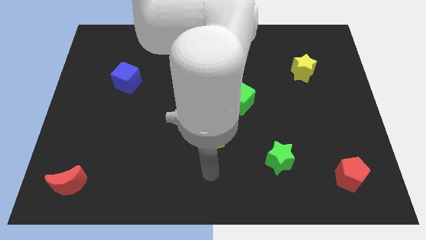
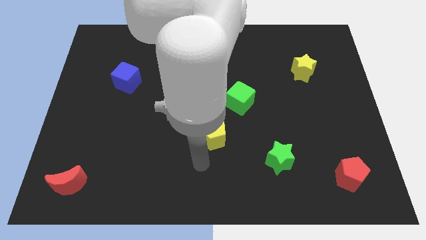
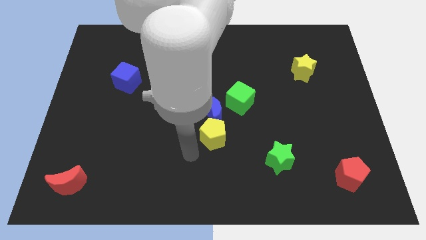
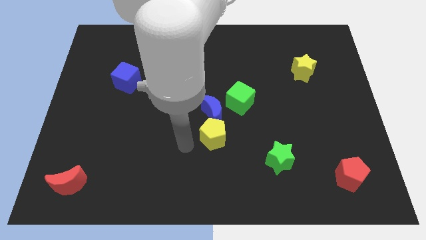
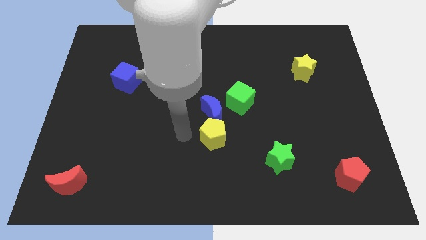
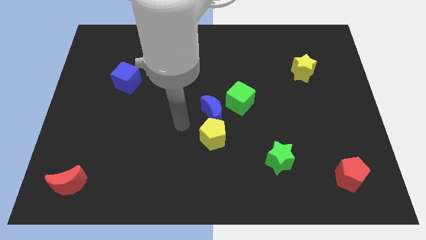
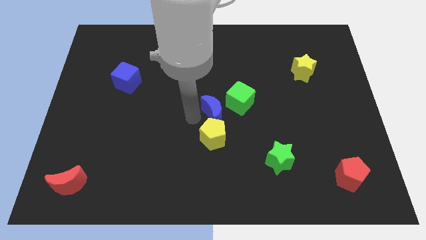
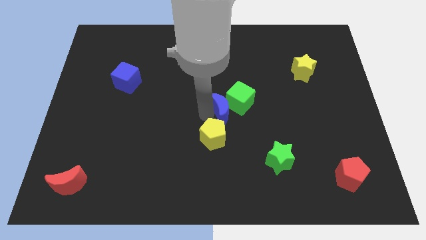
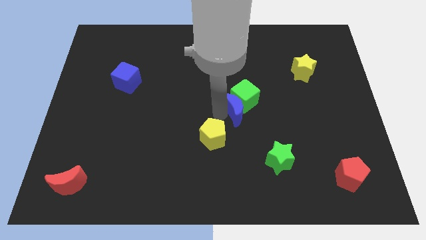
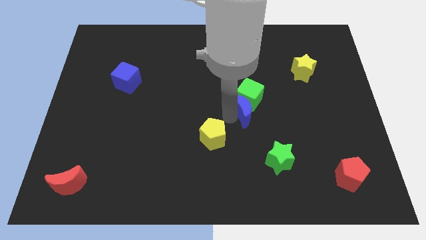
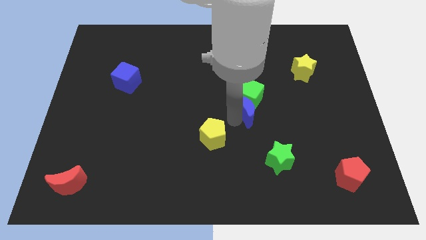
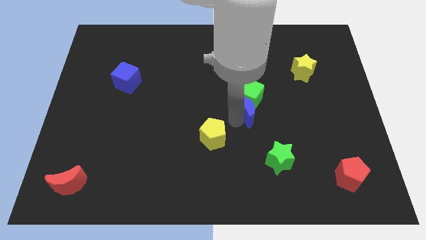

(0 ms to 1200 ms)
move the yellow pentagon away from the blue moon

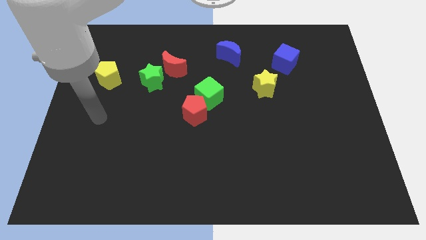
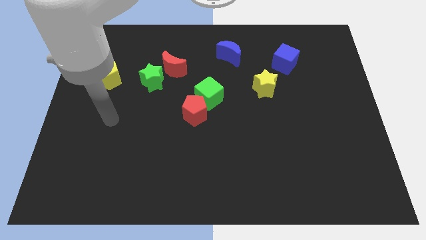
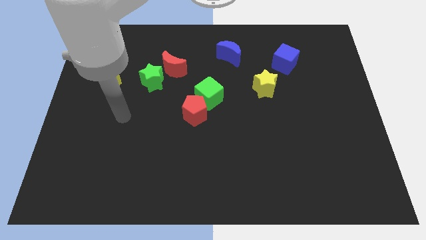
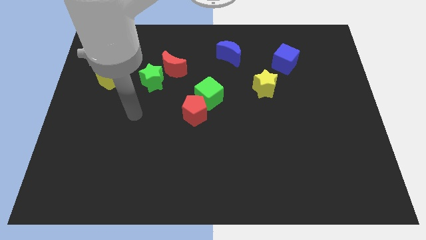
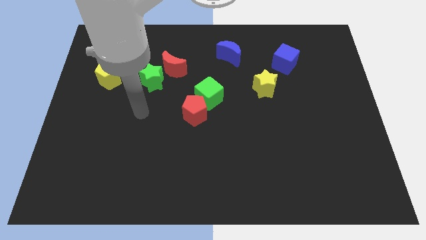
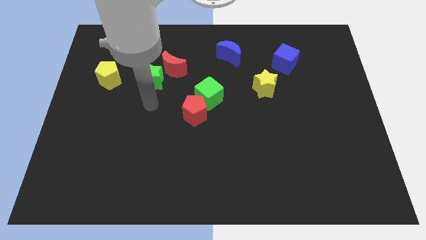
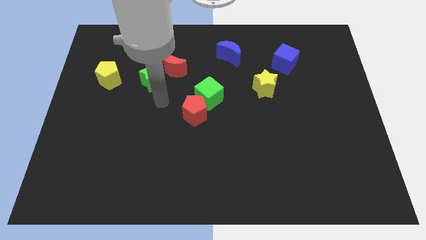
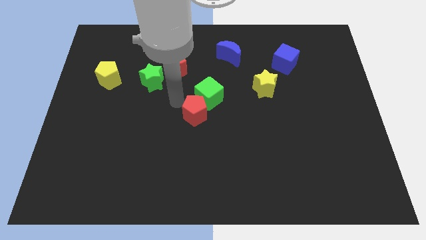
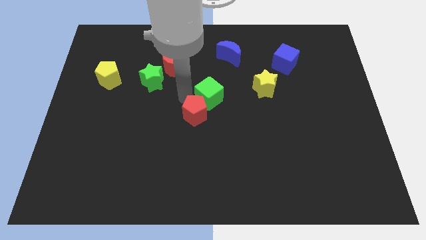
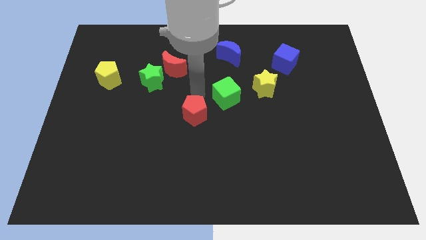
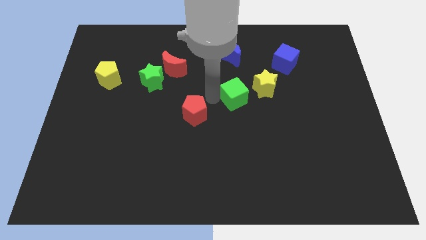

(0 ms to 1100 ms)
separate the red pentagon from the green cube

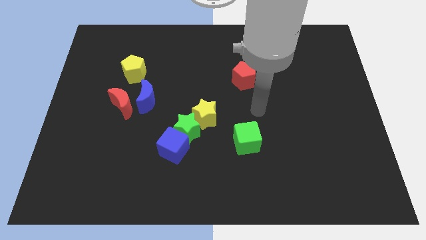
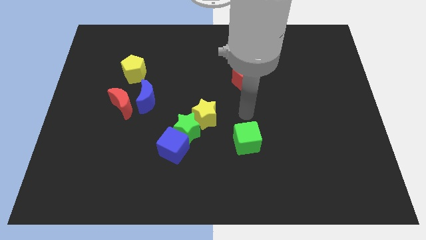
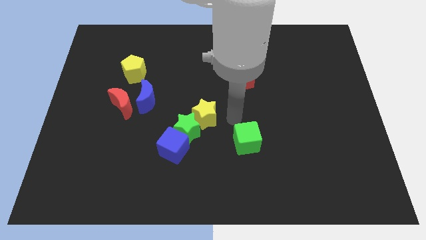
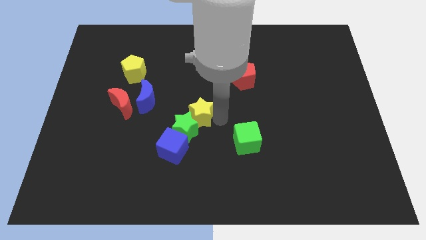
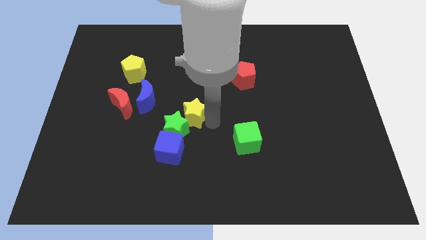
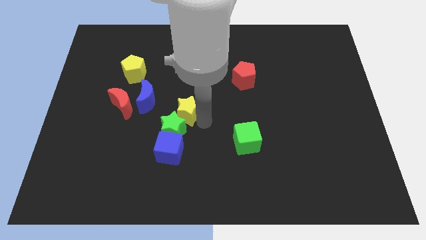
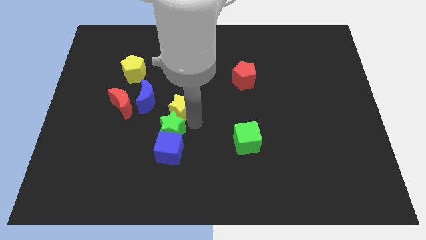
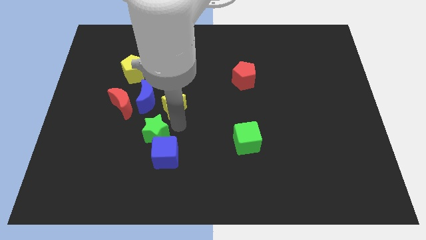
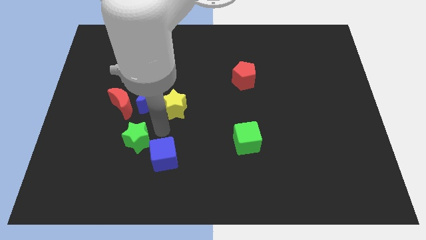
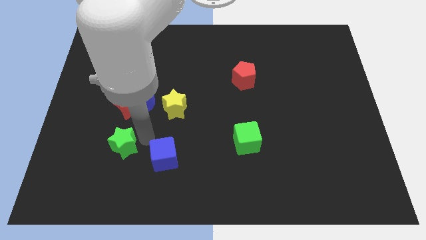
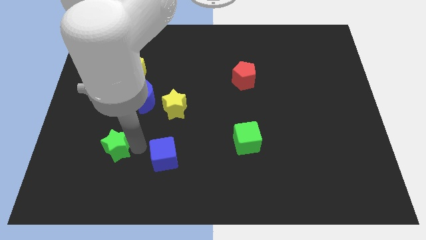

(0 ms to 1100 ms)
separate the blue cube from the green star

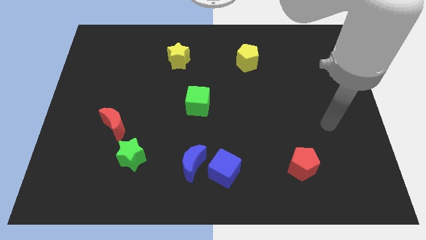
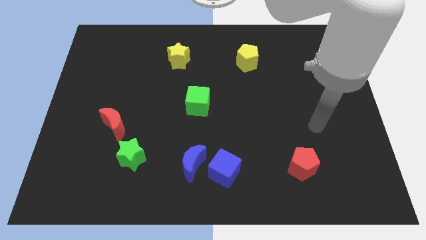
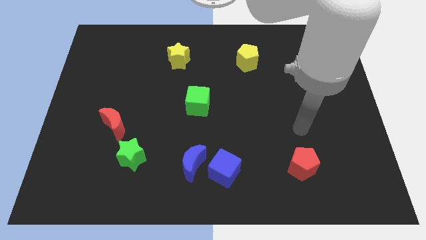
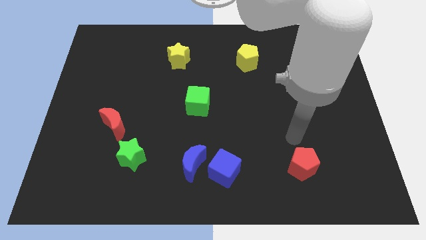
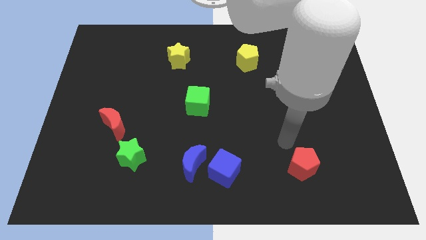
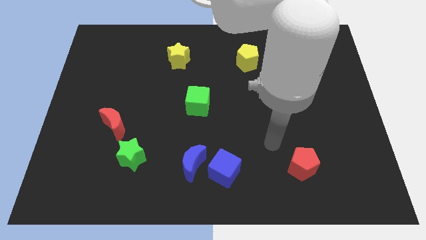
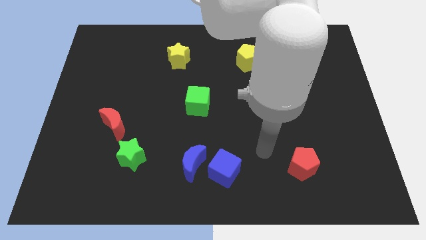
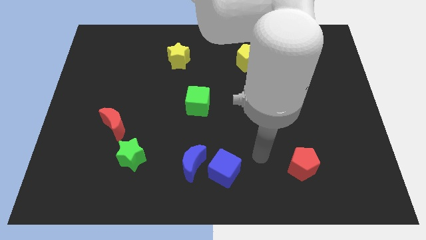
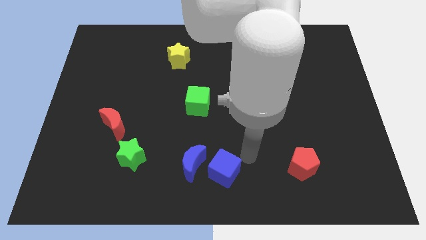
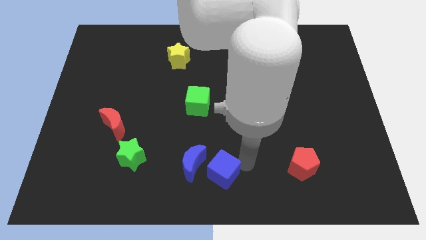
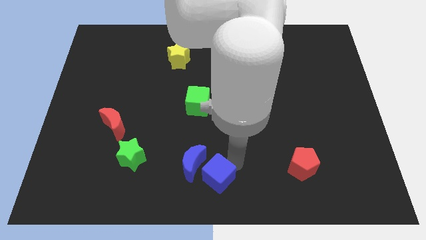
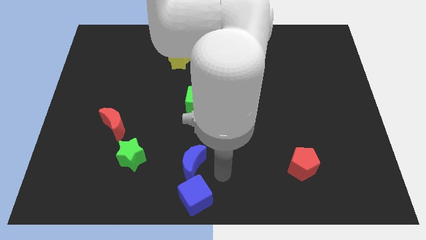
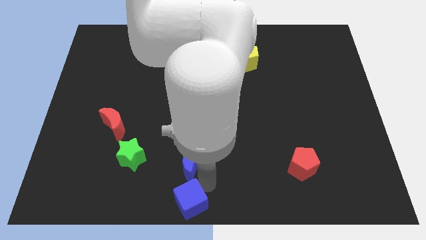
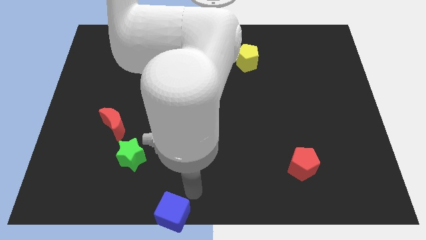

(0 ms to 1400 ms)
pull the blue moon apart from the blue cube

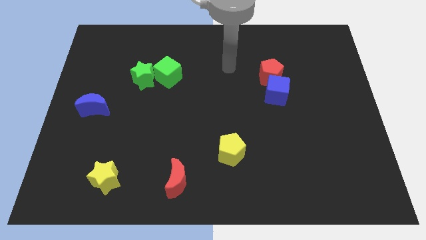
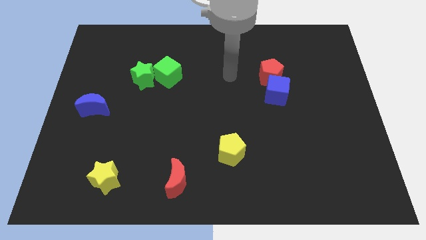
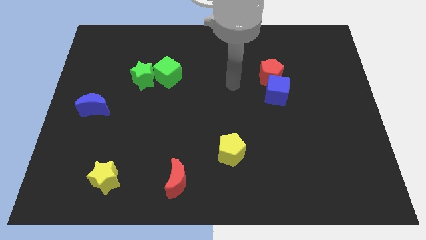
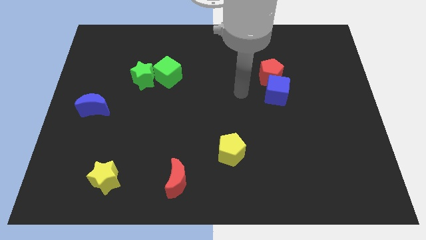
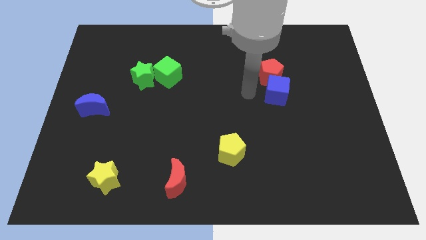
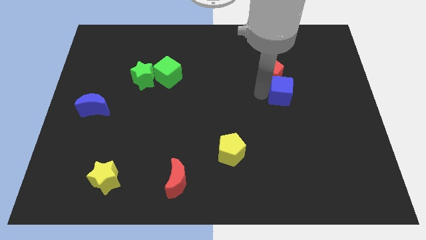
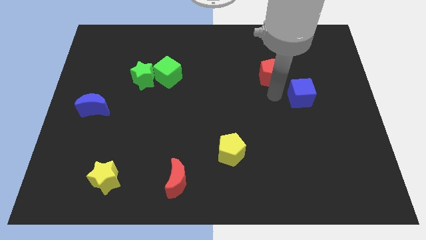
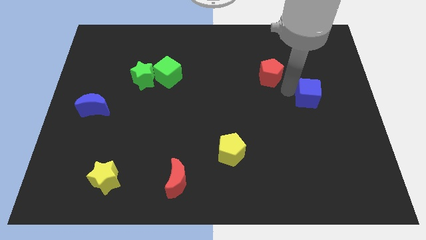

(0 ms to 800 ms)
pull the red pentagon apart from the blue cube

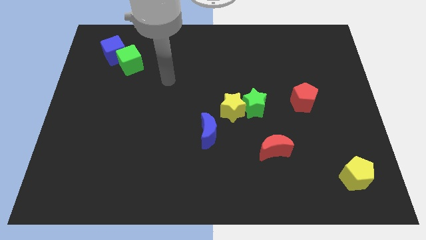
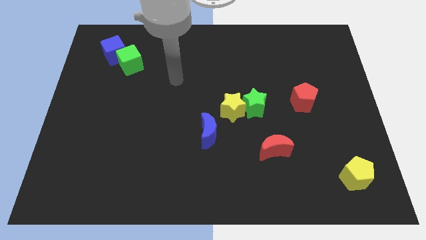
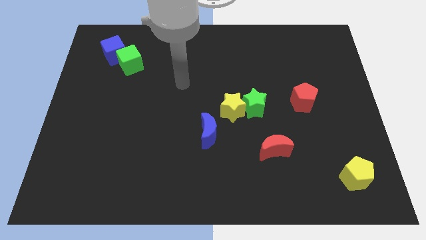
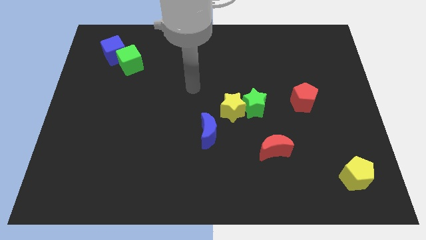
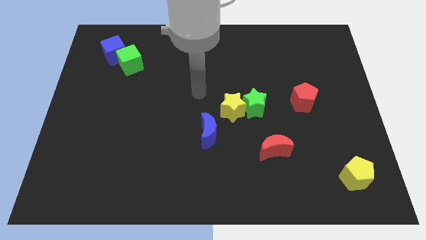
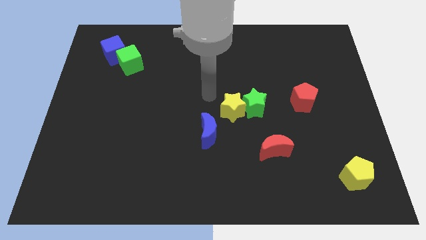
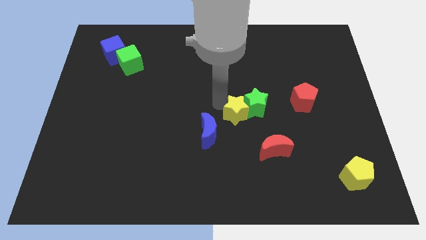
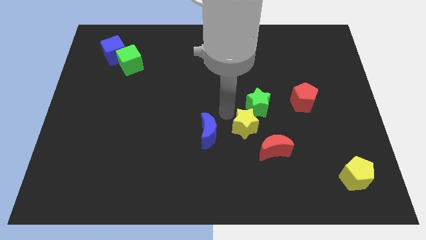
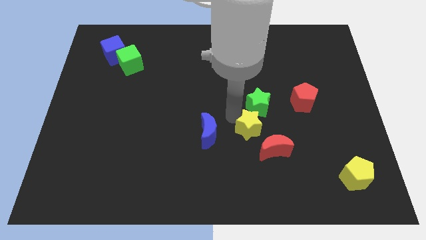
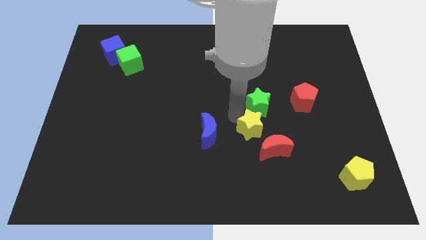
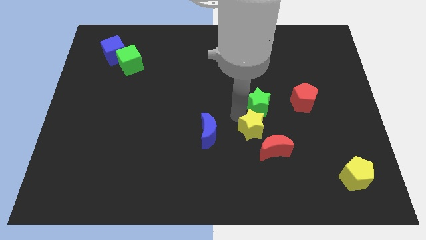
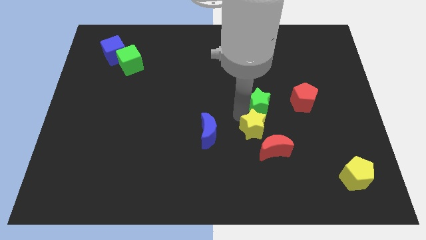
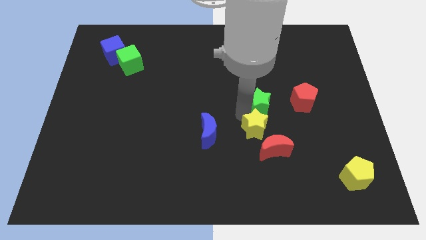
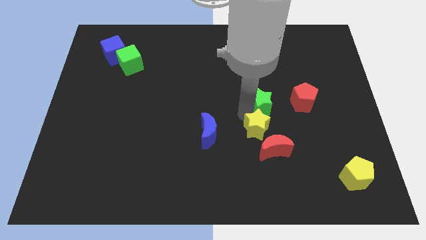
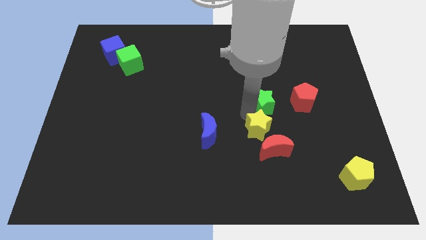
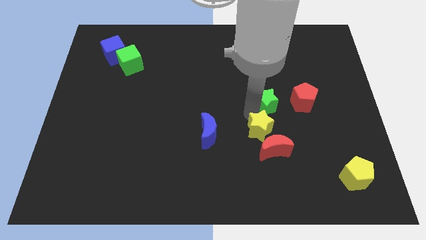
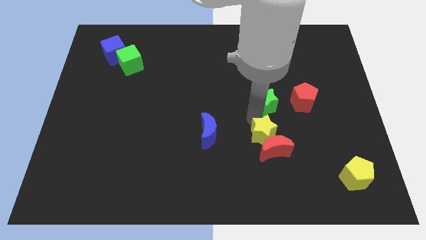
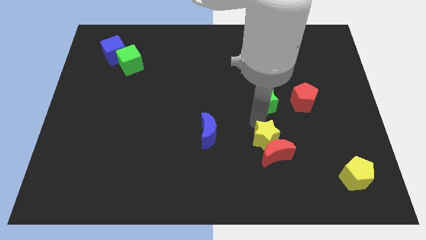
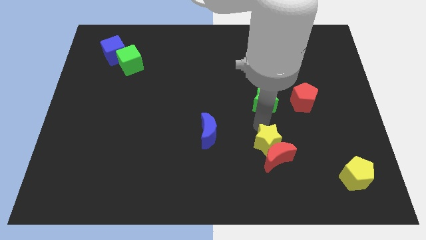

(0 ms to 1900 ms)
pull the green star apart from the yellow star

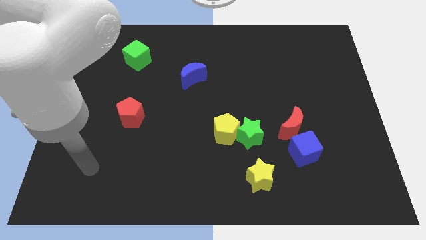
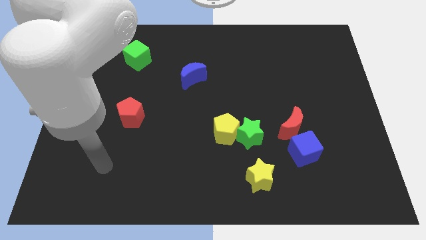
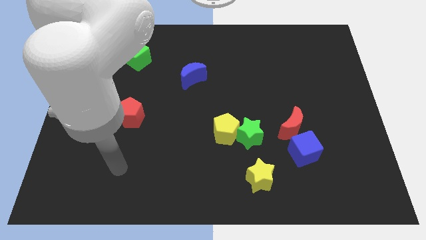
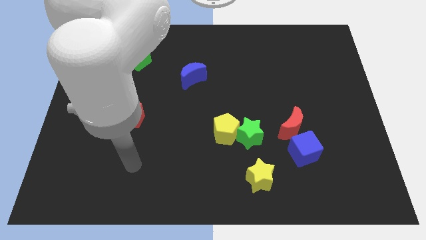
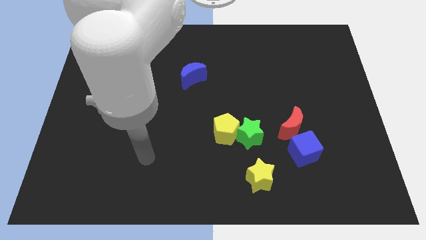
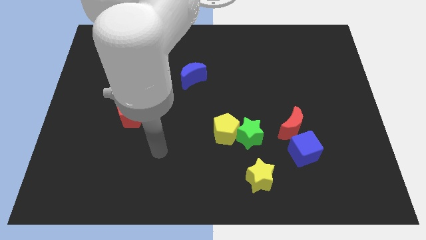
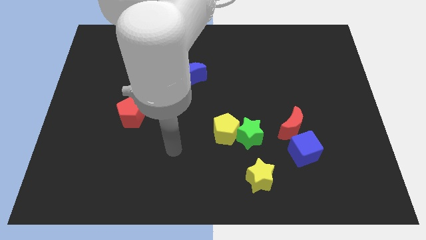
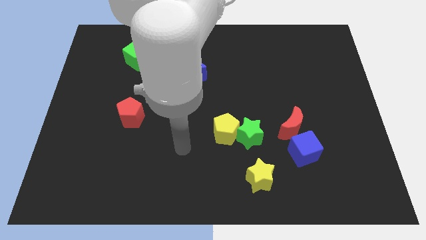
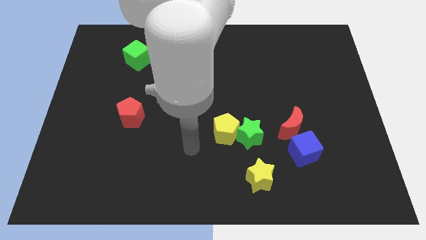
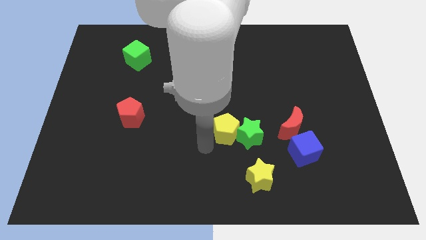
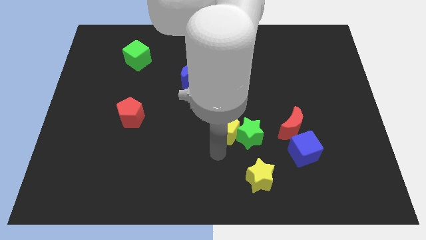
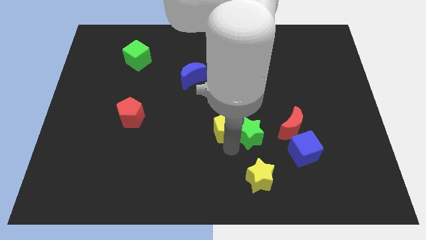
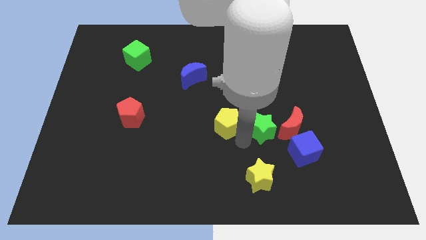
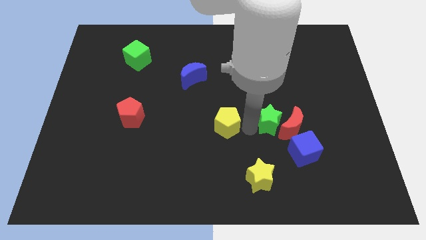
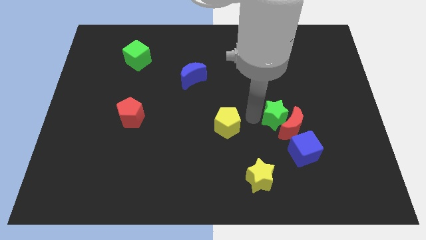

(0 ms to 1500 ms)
separate the yellow pentagon from the green star

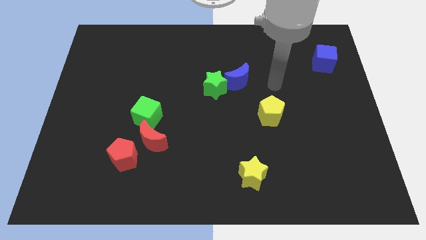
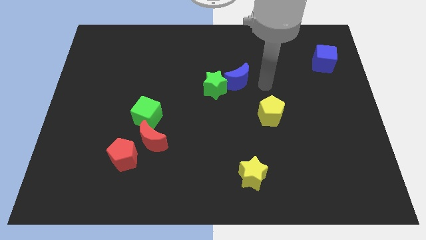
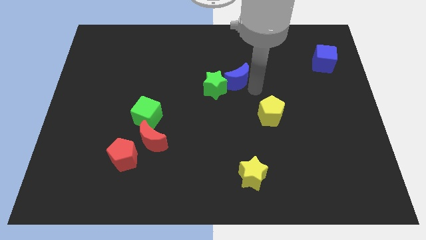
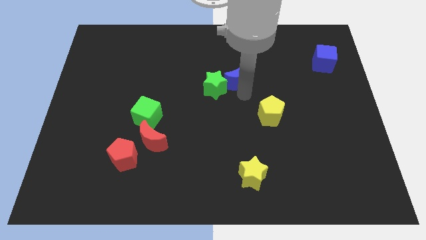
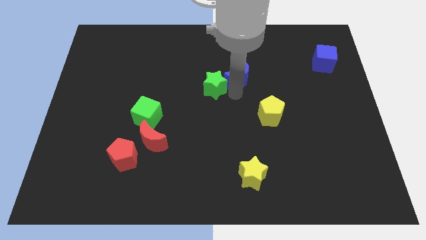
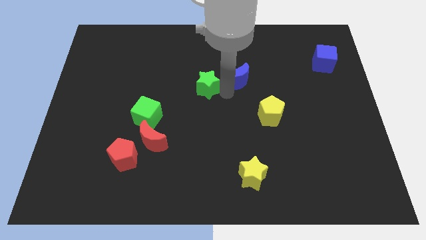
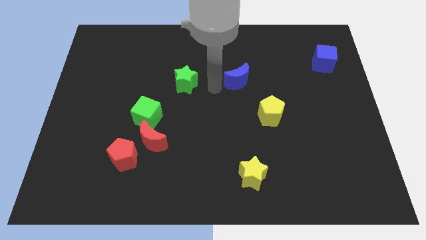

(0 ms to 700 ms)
pull the blue moon apart from the green star
